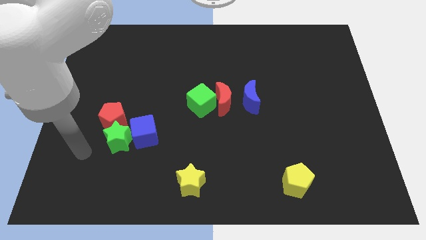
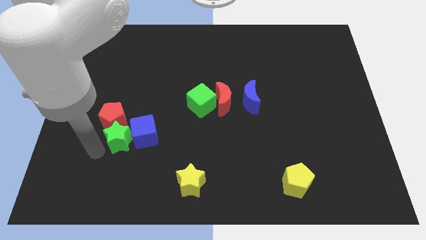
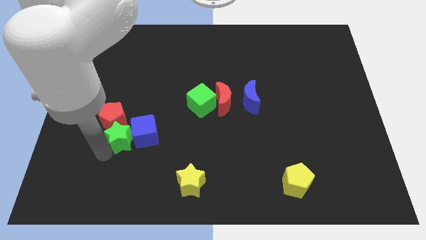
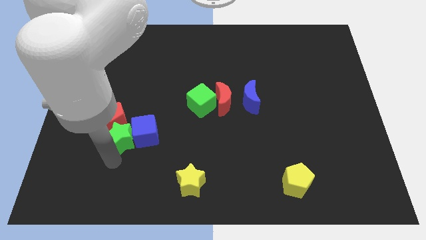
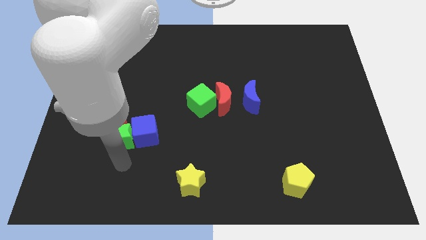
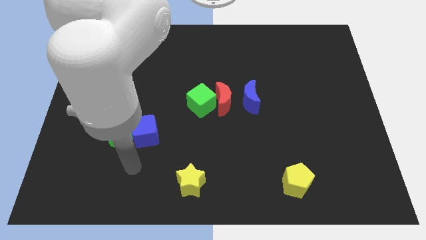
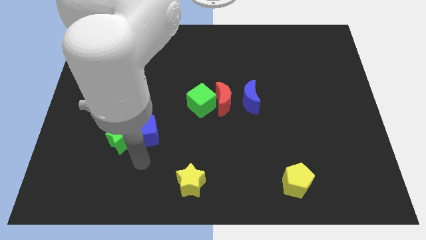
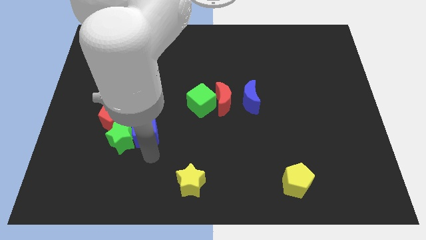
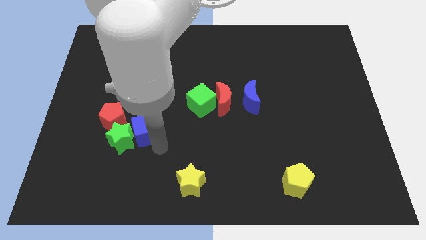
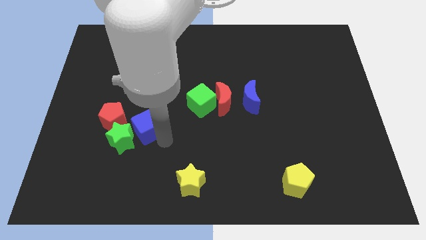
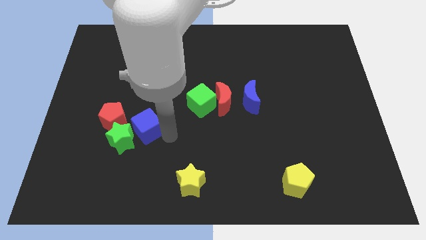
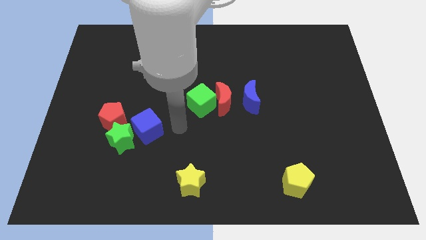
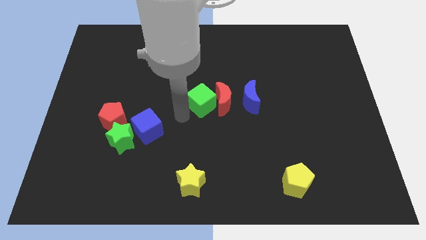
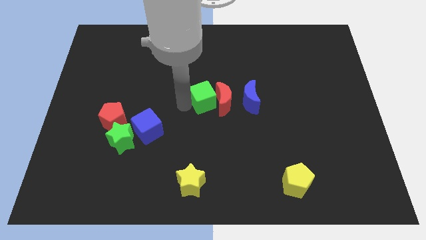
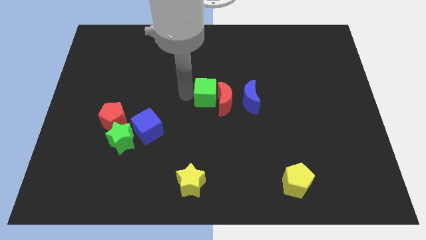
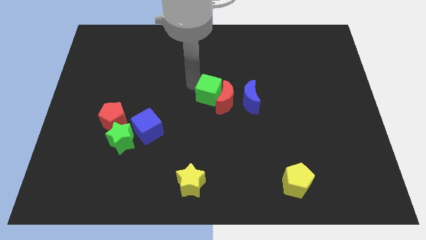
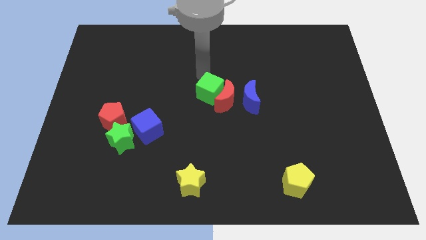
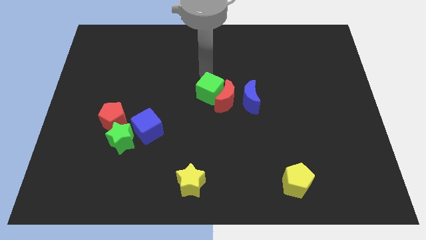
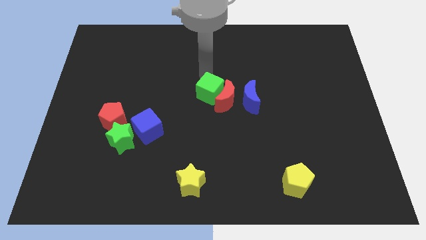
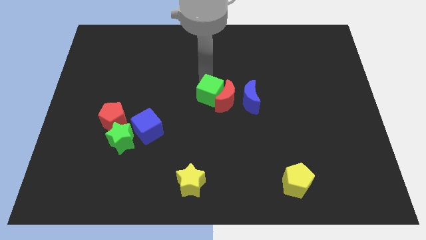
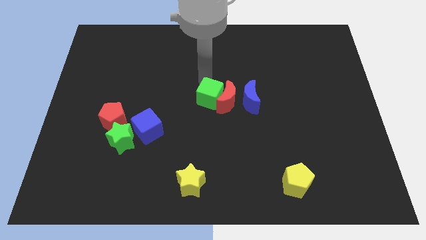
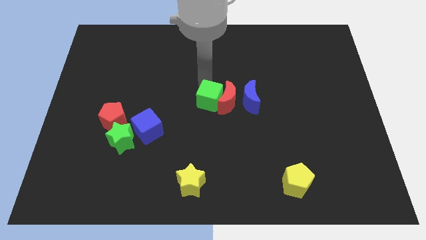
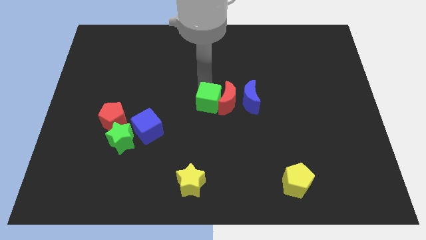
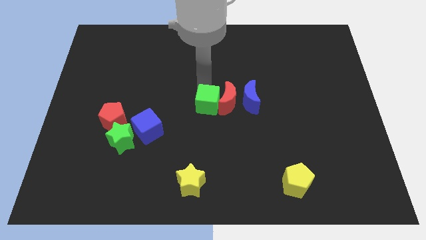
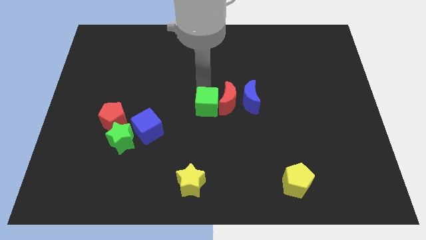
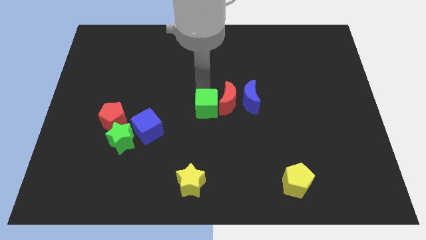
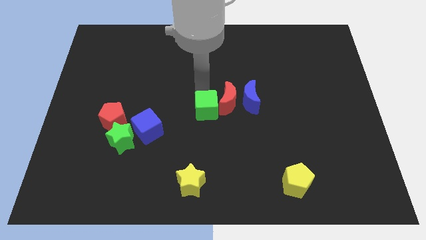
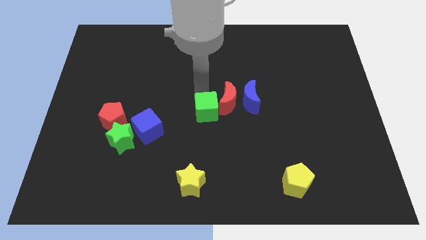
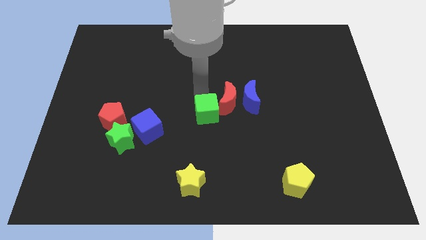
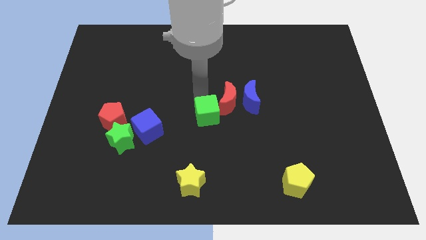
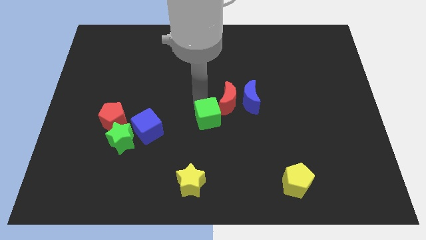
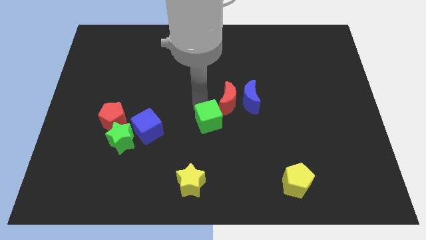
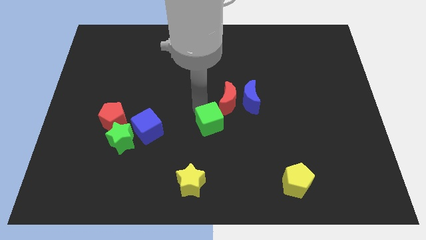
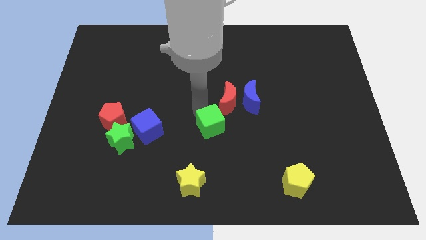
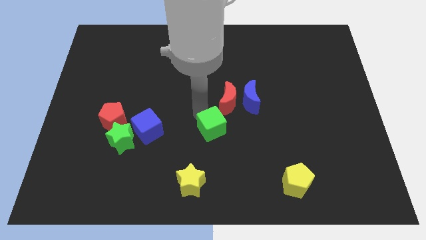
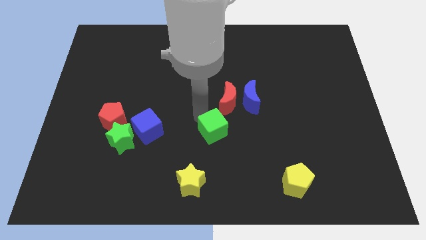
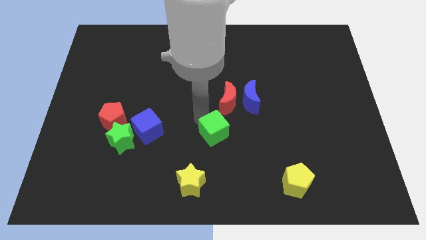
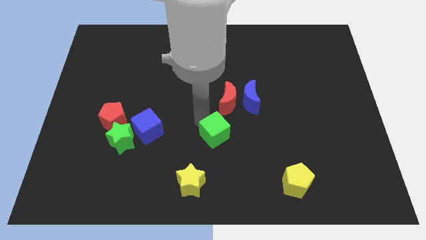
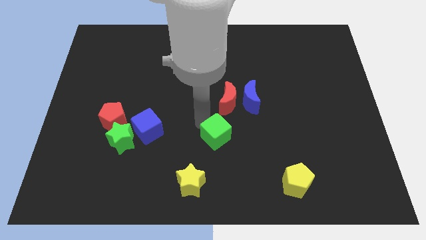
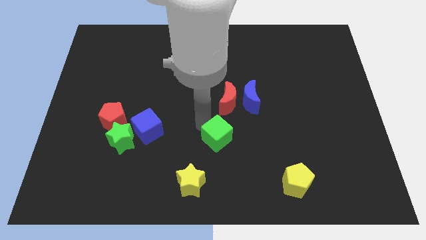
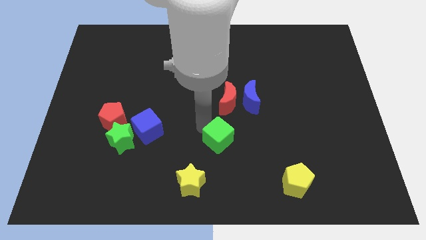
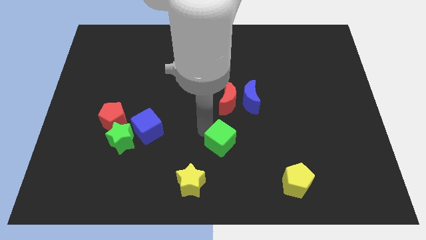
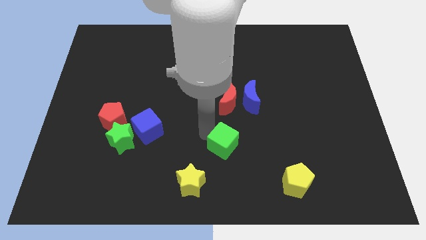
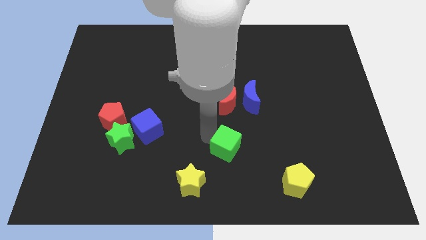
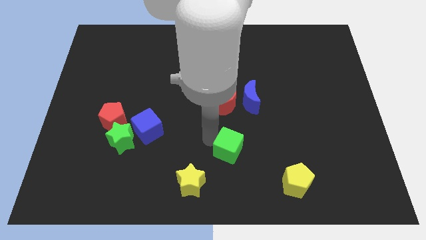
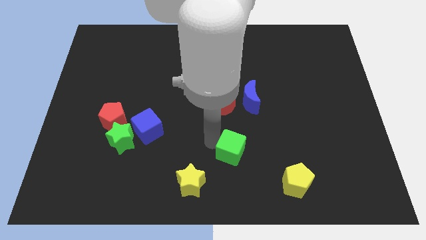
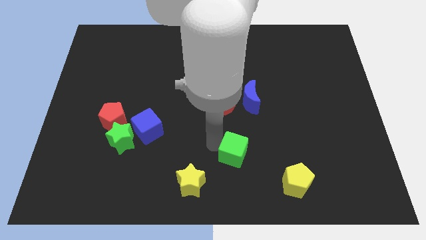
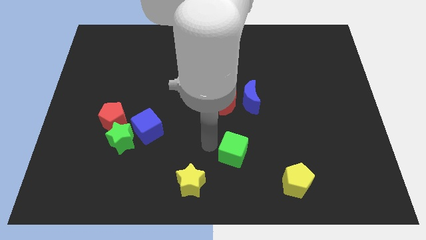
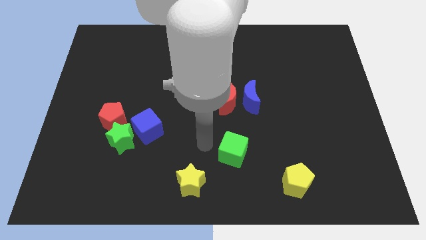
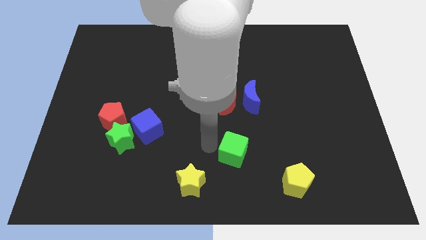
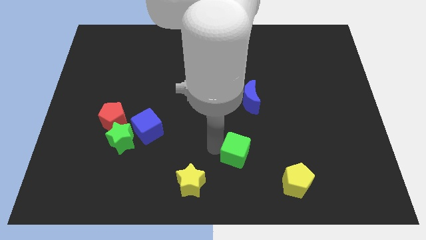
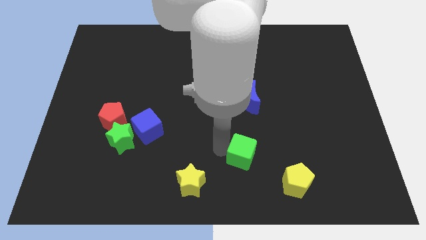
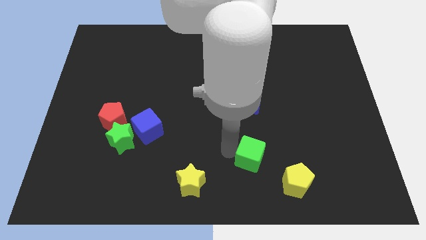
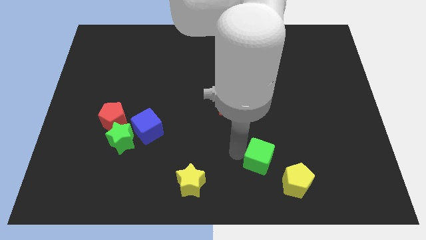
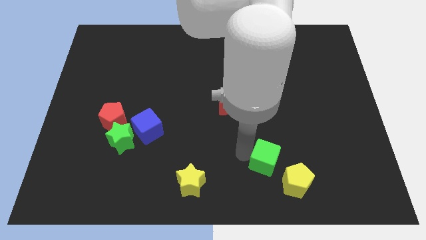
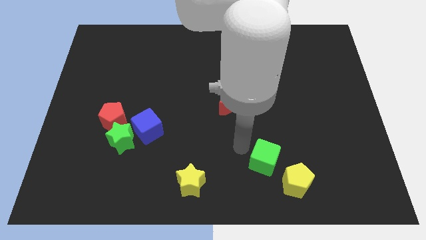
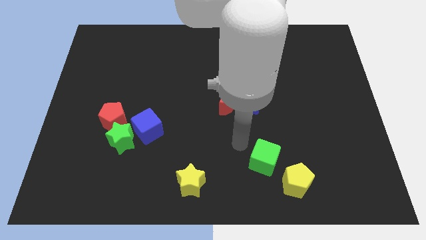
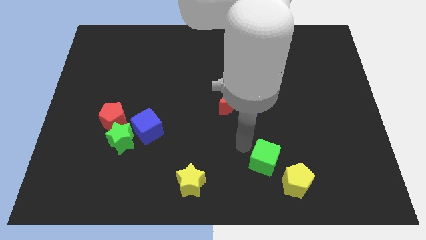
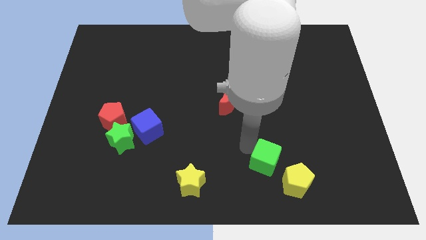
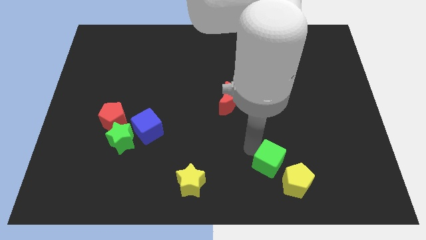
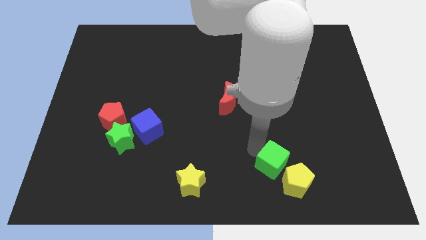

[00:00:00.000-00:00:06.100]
put the green cube to the yellow pentagon

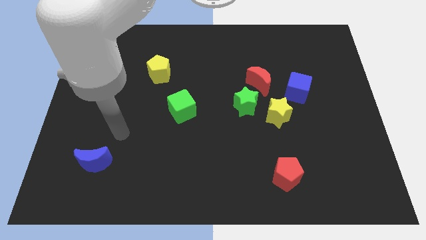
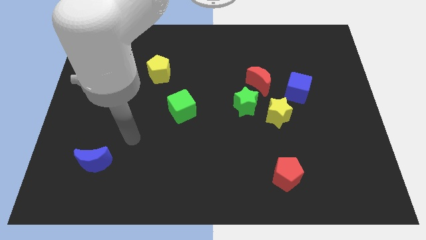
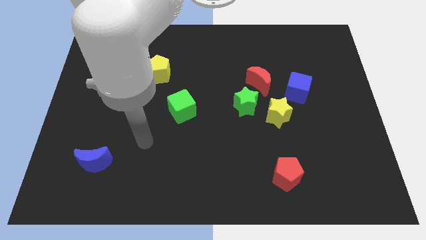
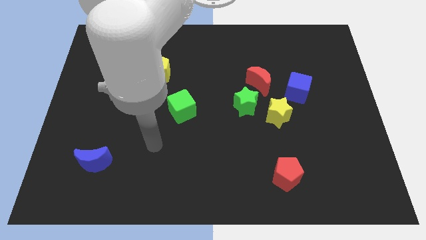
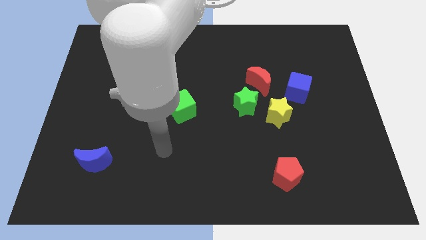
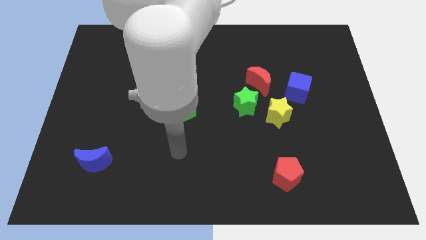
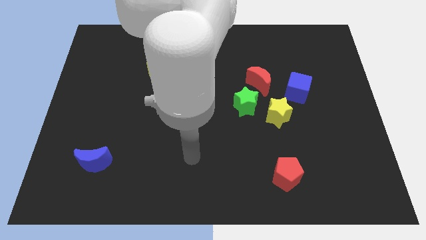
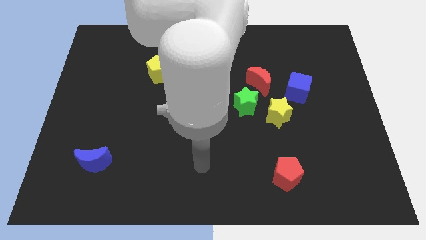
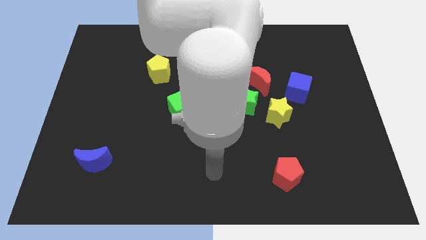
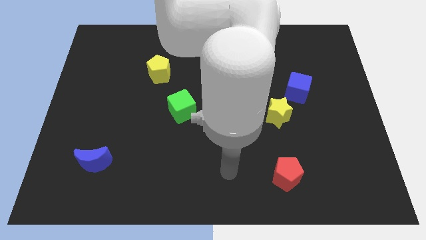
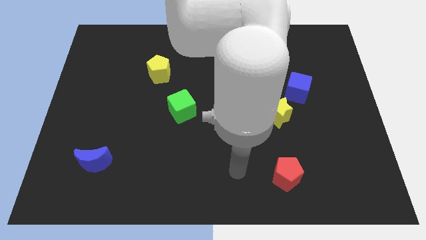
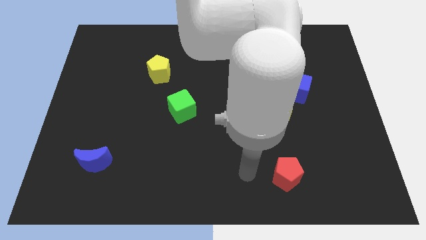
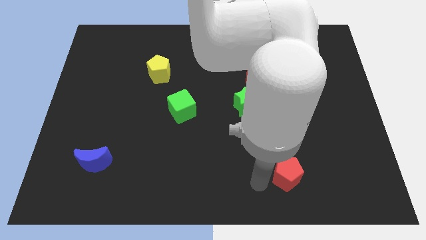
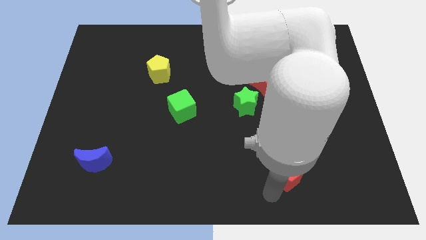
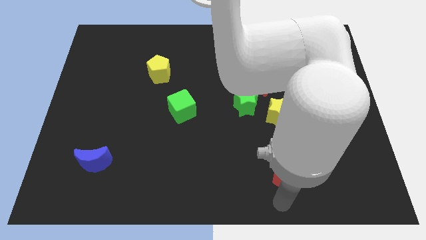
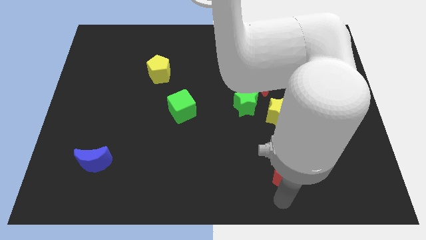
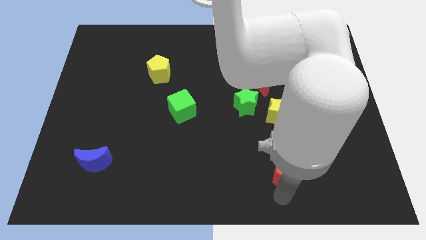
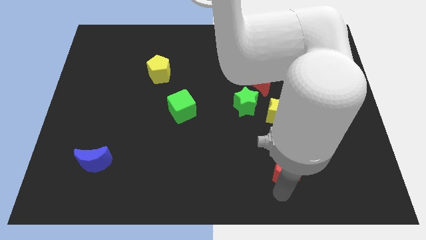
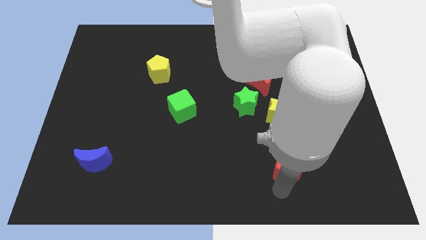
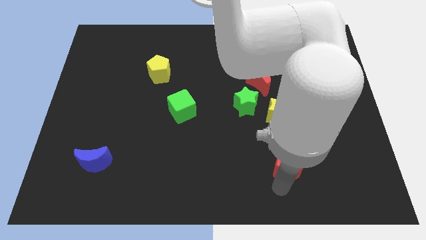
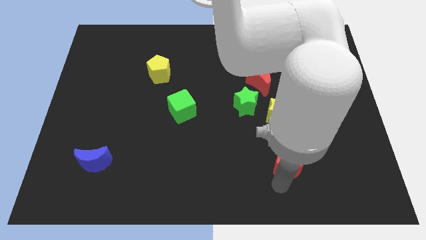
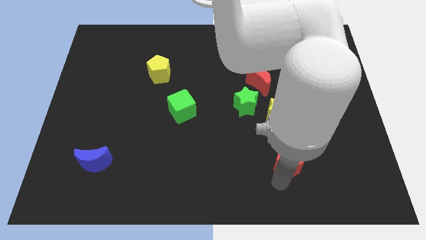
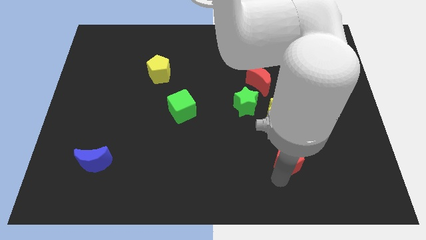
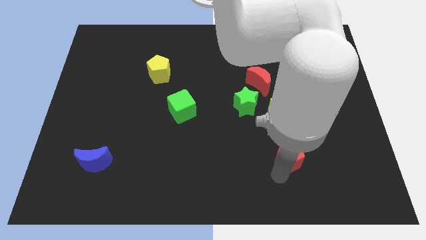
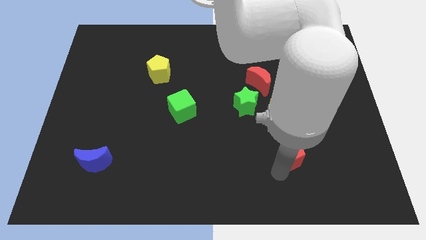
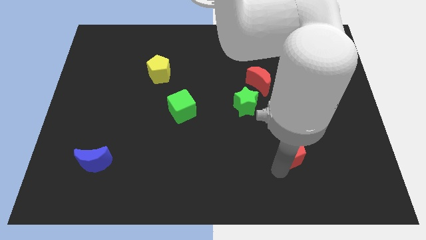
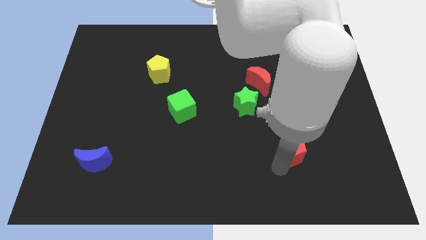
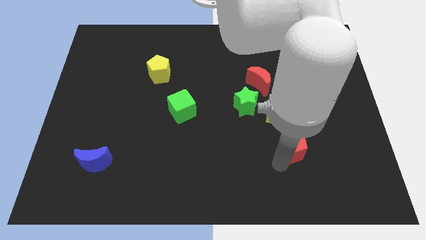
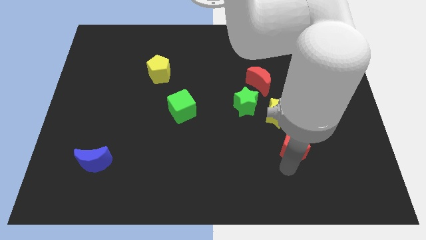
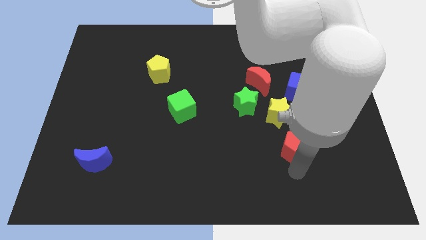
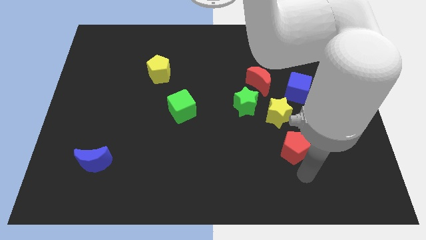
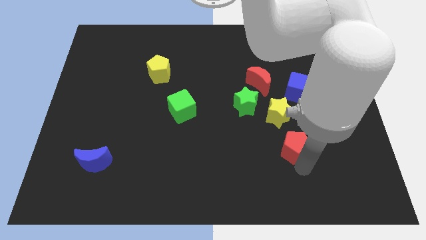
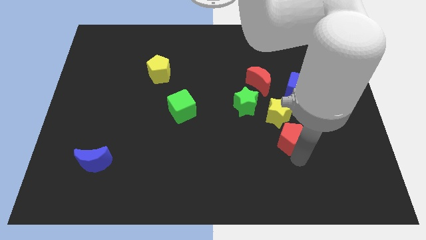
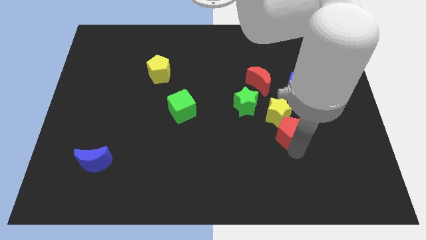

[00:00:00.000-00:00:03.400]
push the red pentagon to the yellow star
